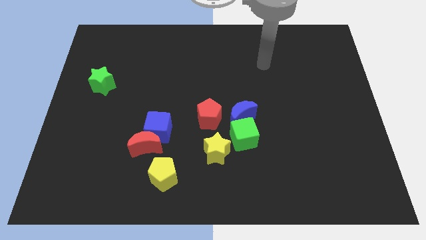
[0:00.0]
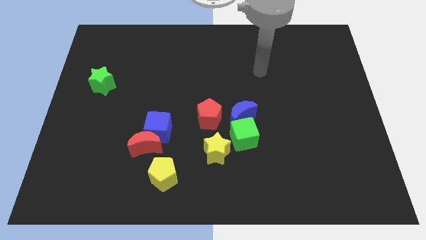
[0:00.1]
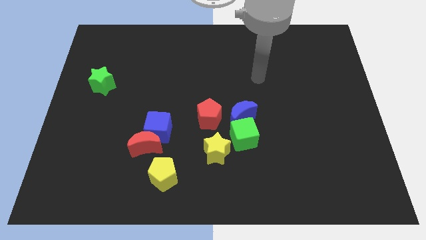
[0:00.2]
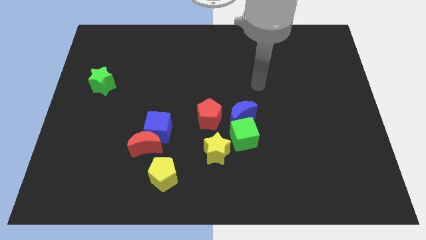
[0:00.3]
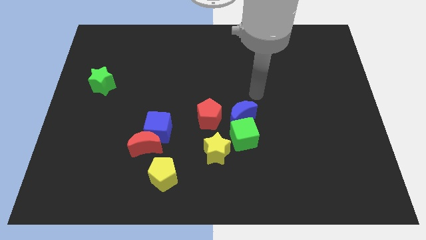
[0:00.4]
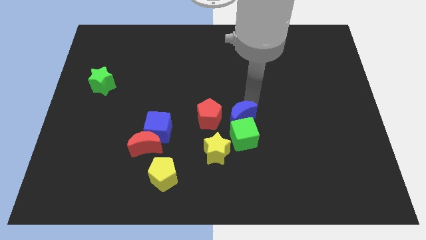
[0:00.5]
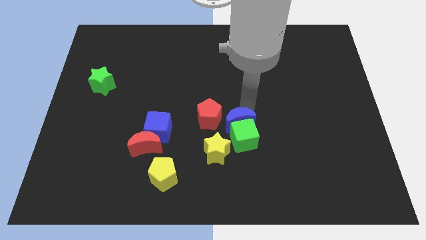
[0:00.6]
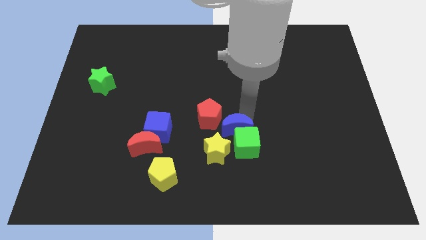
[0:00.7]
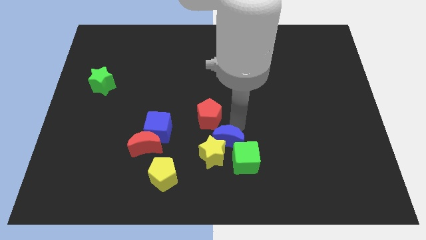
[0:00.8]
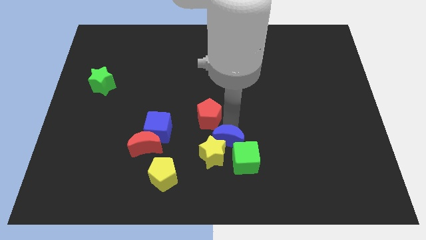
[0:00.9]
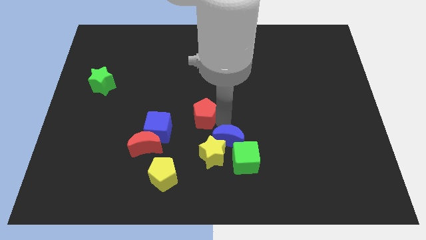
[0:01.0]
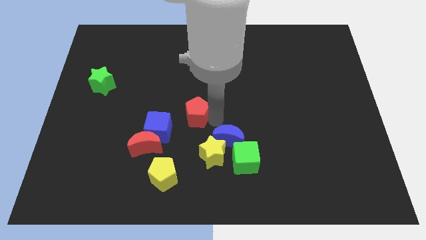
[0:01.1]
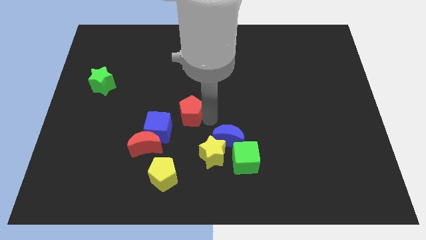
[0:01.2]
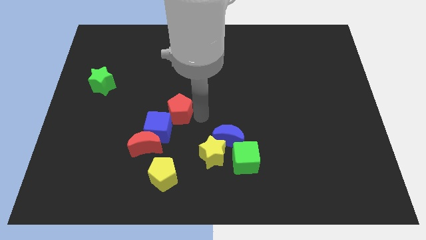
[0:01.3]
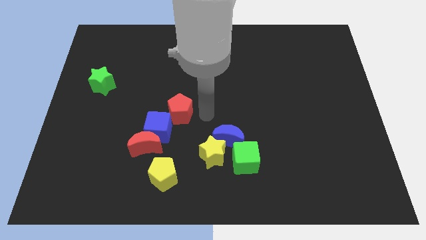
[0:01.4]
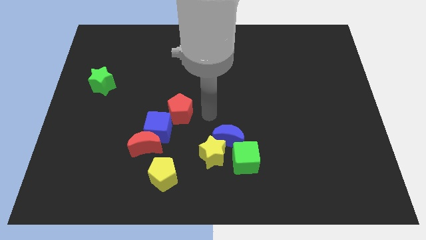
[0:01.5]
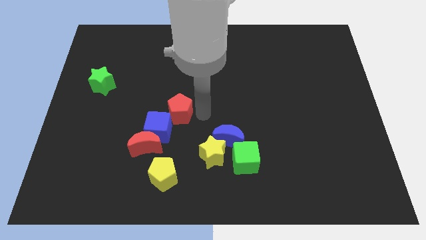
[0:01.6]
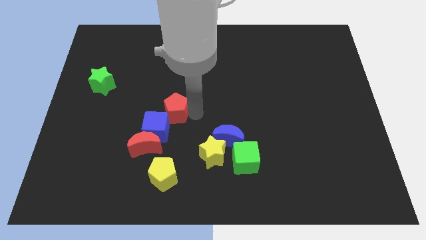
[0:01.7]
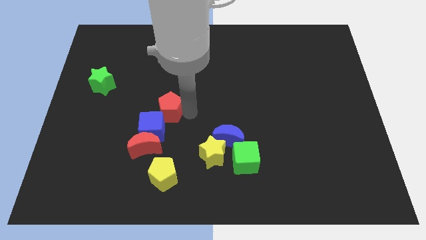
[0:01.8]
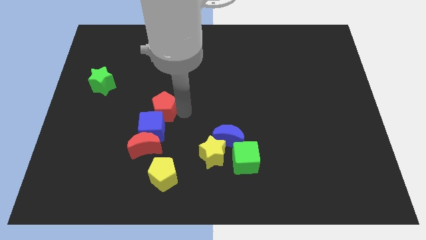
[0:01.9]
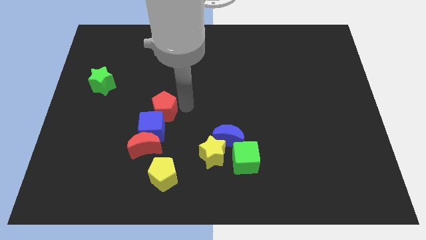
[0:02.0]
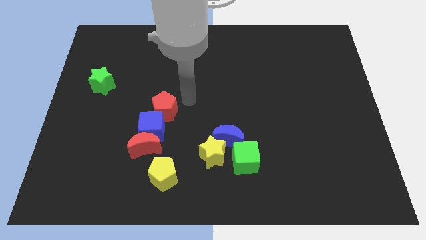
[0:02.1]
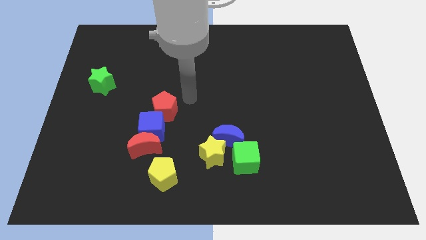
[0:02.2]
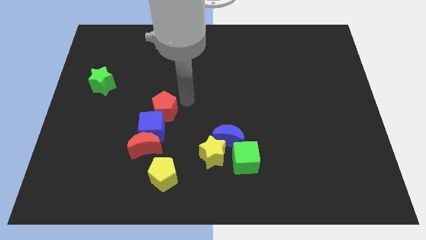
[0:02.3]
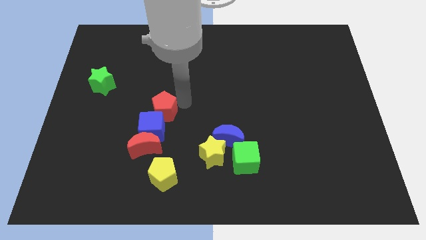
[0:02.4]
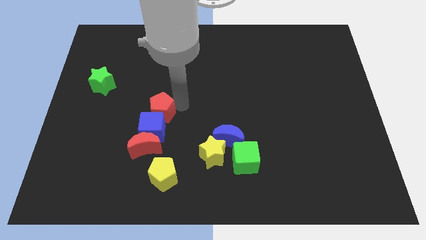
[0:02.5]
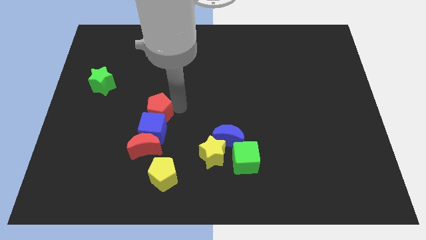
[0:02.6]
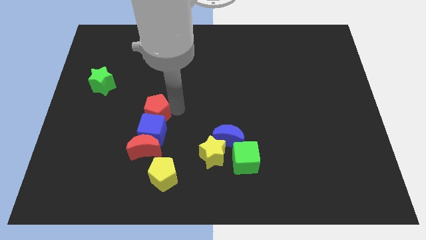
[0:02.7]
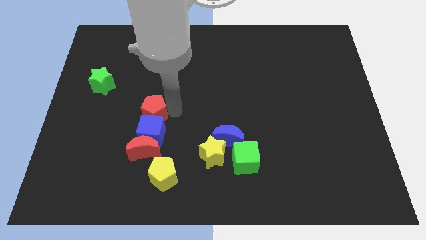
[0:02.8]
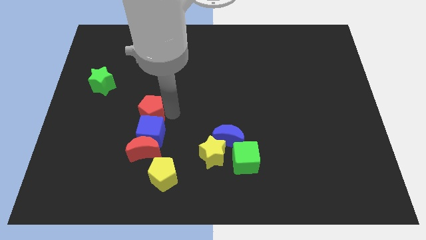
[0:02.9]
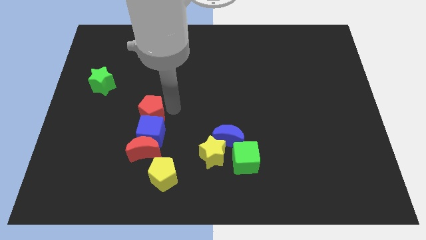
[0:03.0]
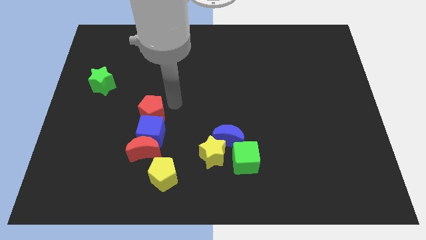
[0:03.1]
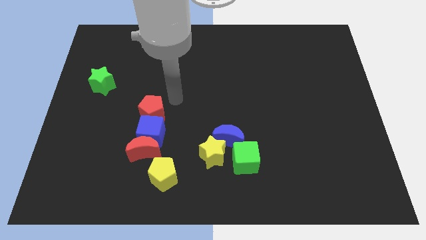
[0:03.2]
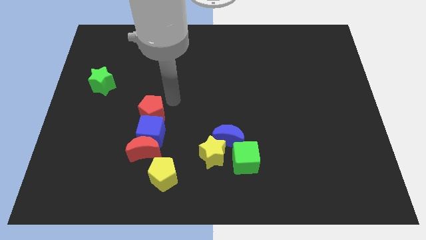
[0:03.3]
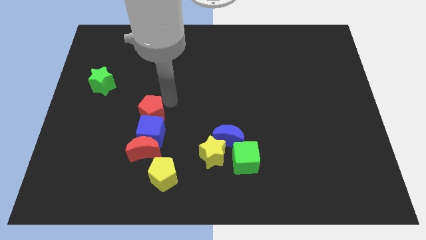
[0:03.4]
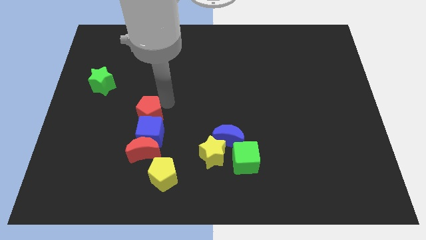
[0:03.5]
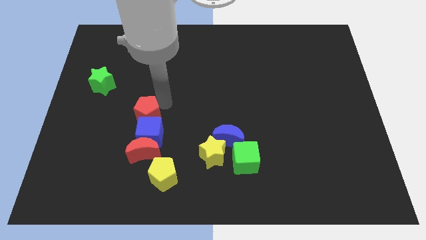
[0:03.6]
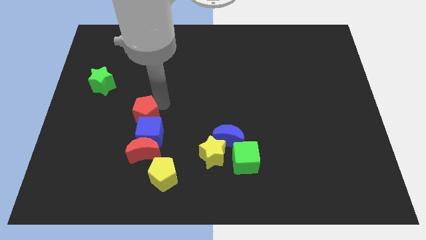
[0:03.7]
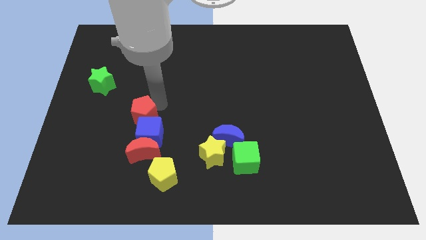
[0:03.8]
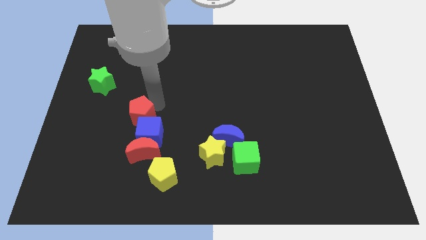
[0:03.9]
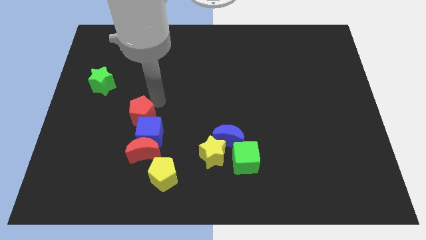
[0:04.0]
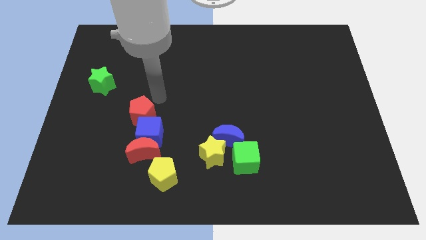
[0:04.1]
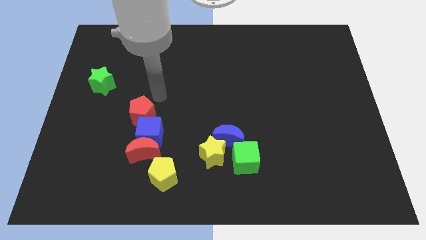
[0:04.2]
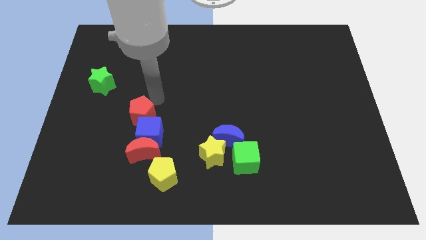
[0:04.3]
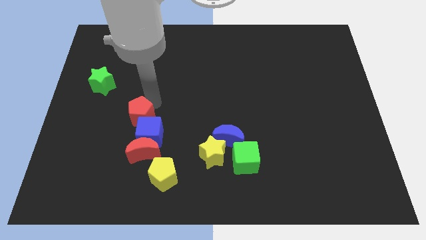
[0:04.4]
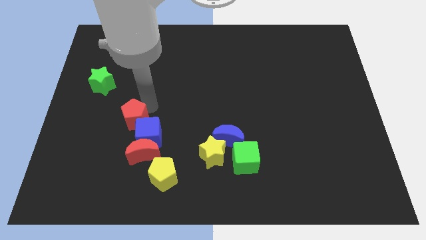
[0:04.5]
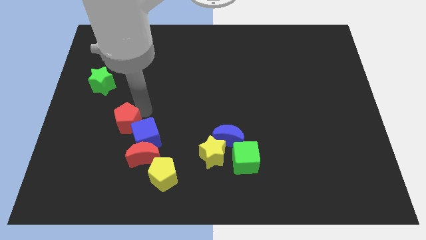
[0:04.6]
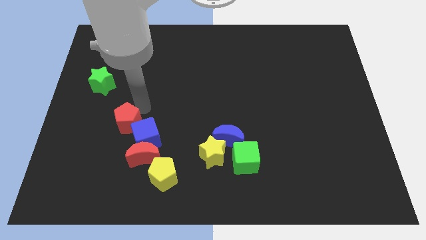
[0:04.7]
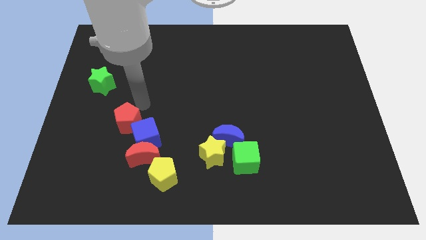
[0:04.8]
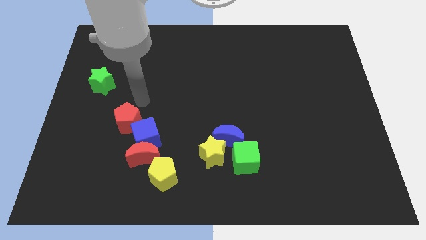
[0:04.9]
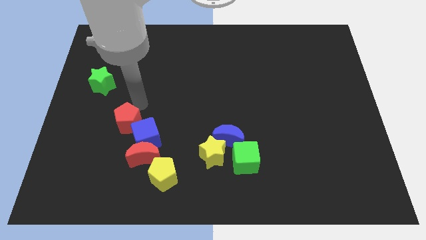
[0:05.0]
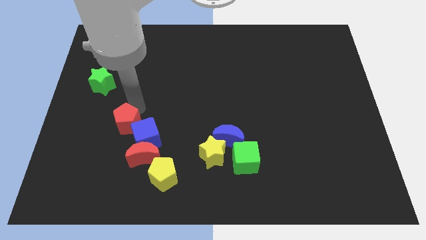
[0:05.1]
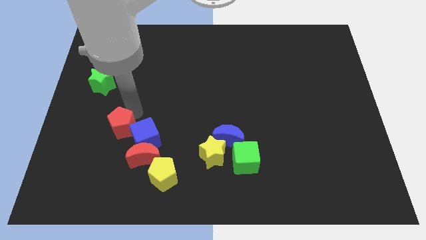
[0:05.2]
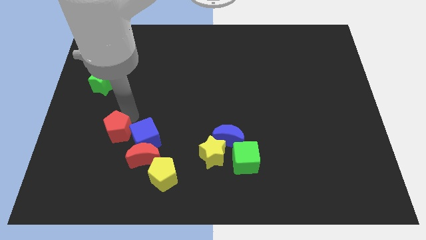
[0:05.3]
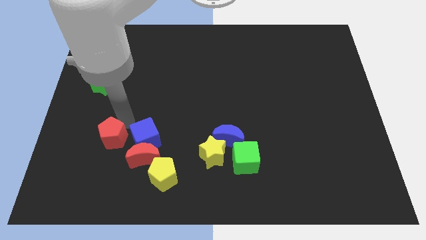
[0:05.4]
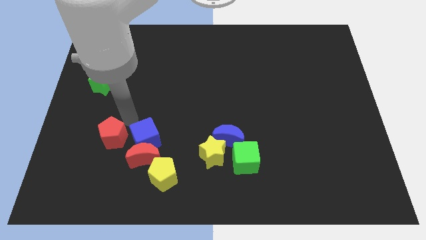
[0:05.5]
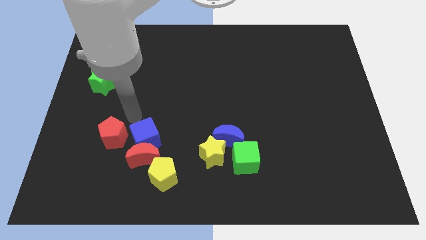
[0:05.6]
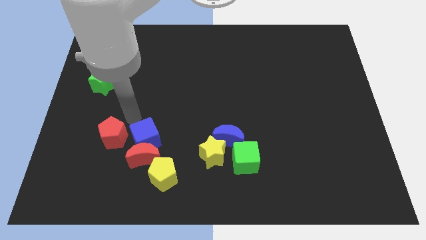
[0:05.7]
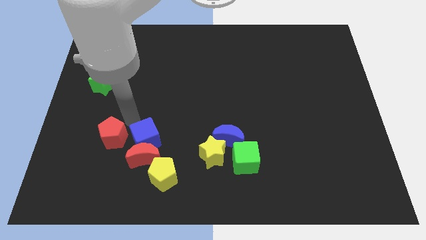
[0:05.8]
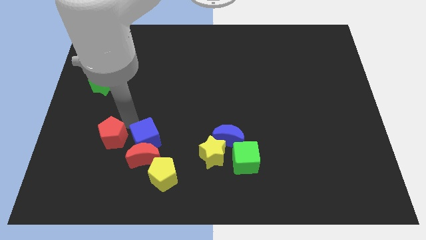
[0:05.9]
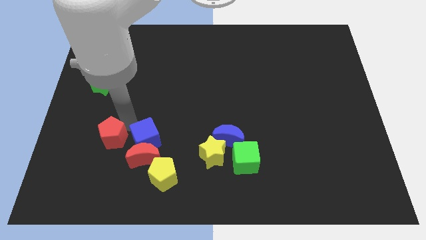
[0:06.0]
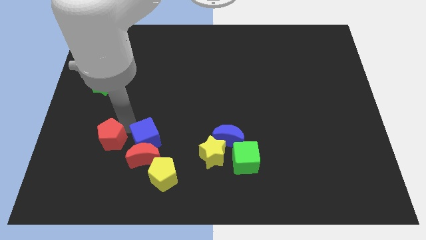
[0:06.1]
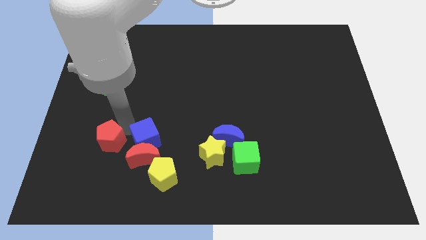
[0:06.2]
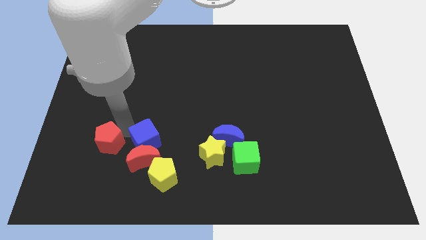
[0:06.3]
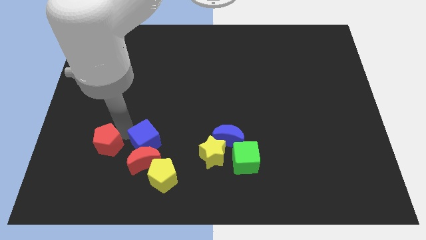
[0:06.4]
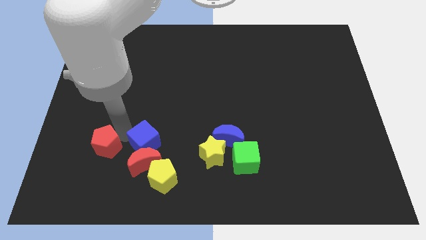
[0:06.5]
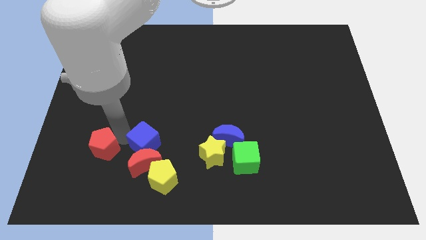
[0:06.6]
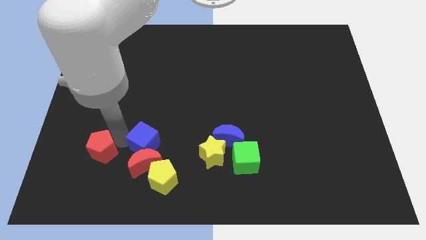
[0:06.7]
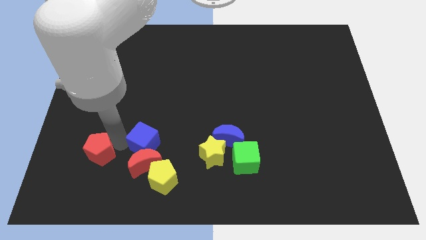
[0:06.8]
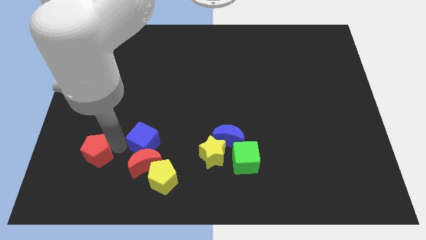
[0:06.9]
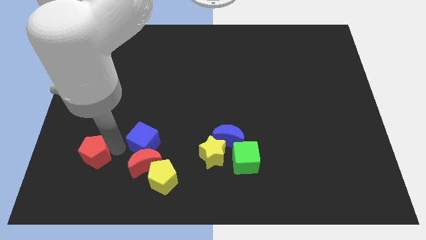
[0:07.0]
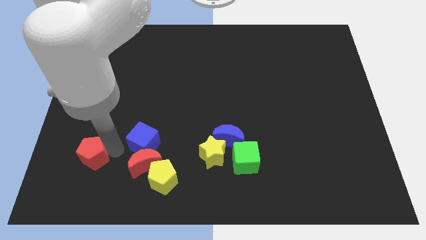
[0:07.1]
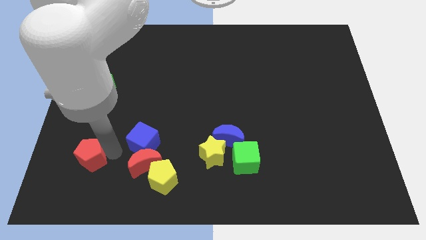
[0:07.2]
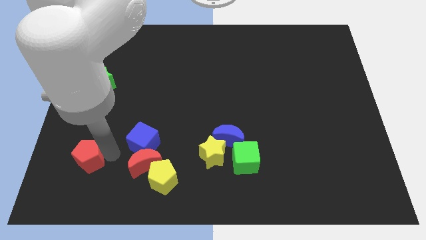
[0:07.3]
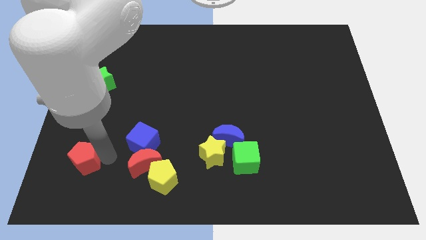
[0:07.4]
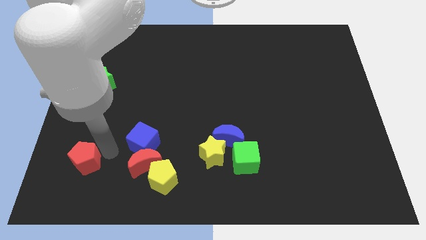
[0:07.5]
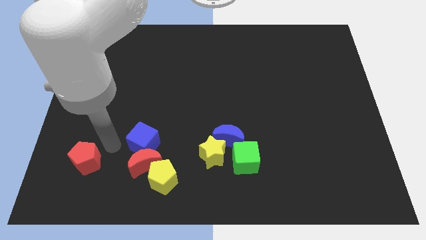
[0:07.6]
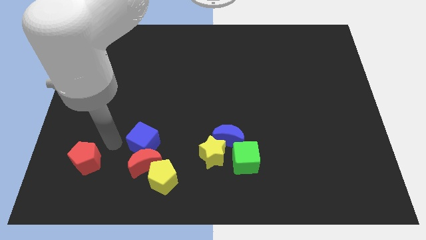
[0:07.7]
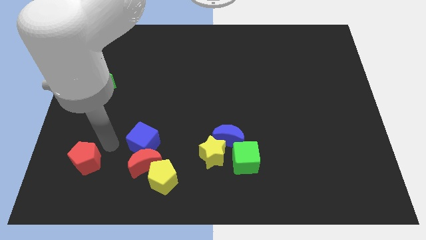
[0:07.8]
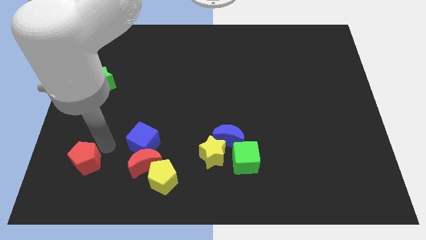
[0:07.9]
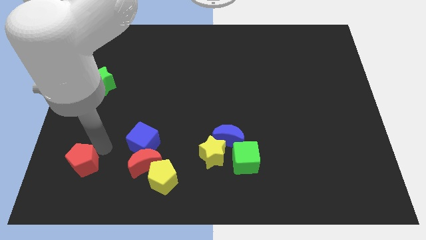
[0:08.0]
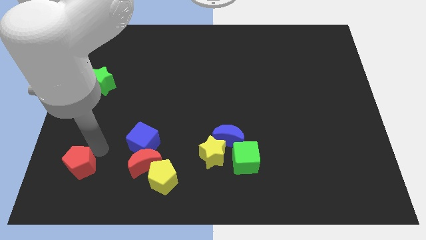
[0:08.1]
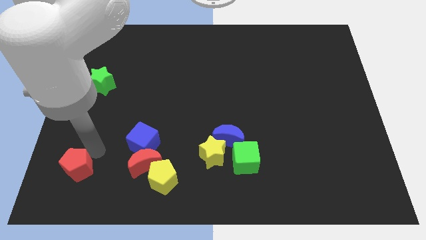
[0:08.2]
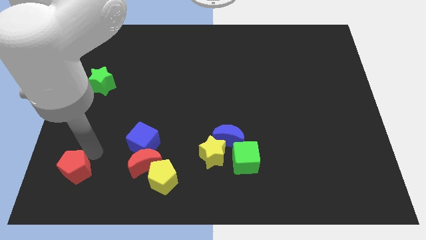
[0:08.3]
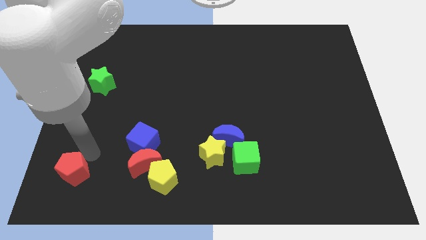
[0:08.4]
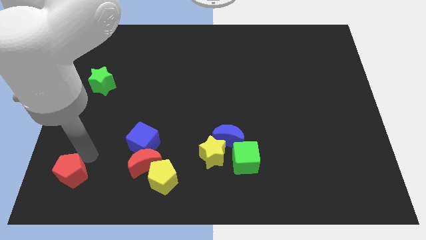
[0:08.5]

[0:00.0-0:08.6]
push the red pentagon to the bottom left of the board
